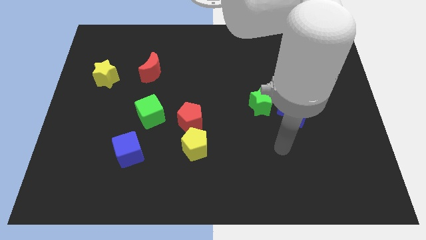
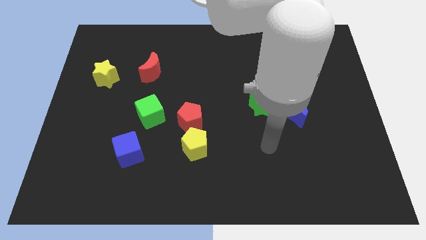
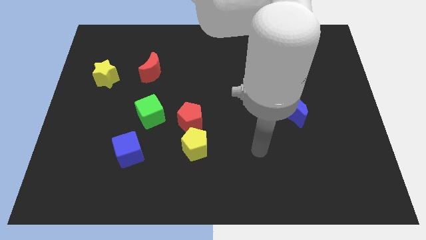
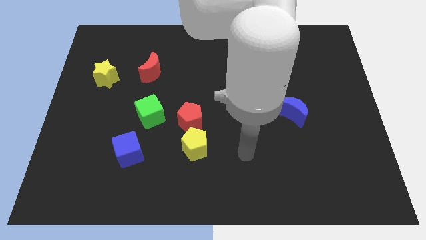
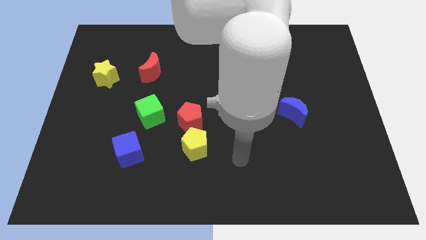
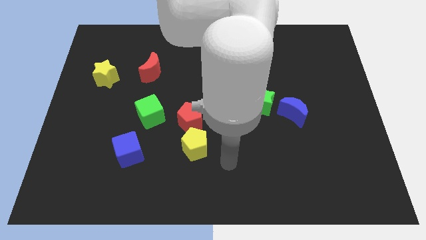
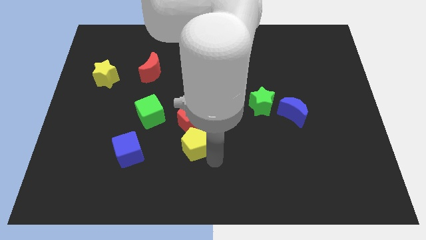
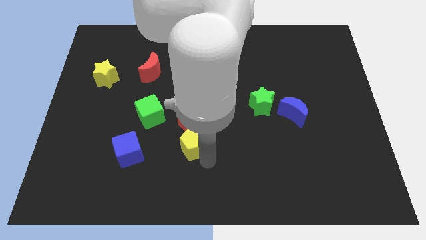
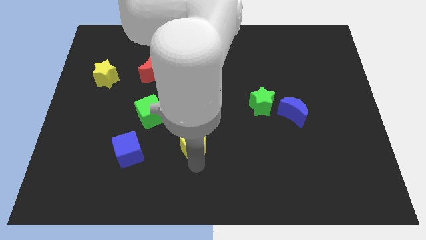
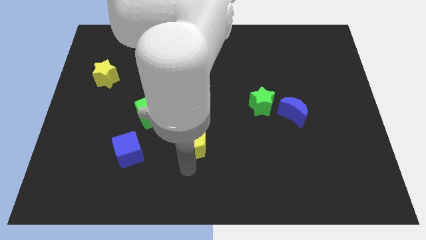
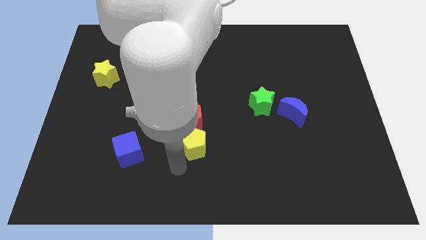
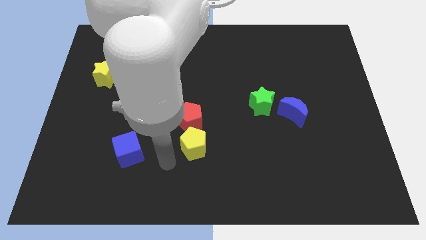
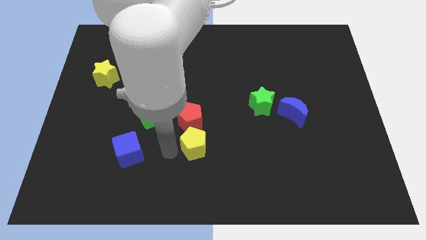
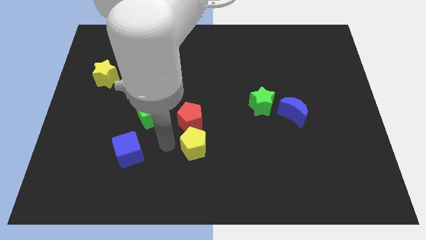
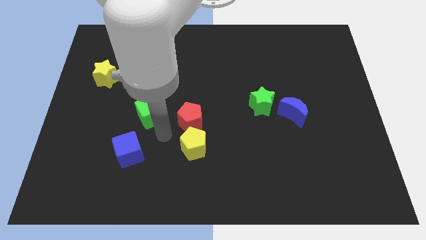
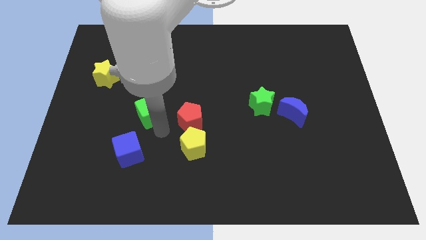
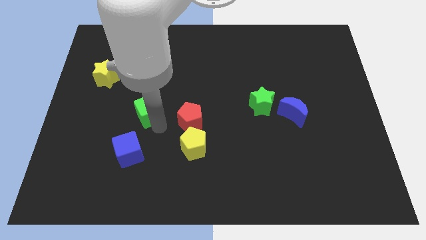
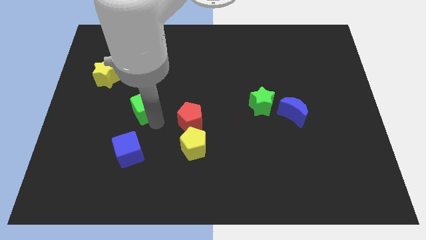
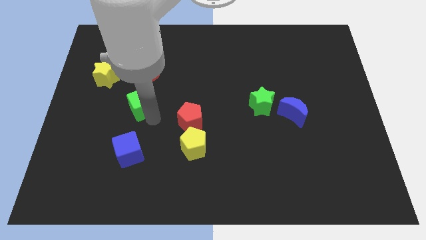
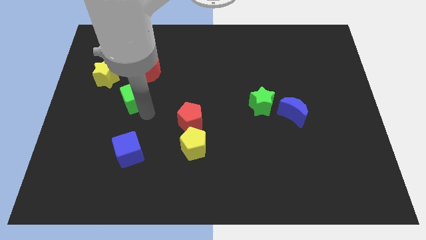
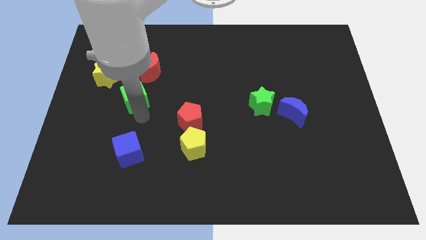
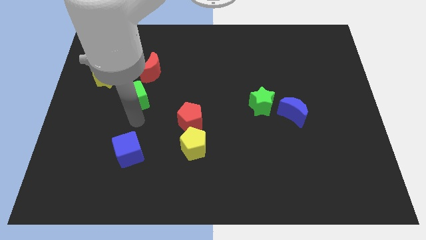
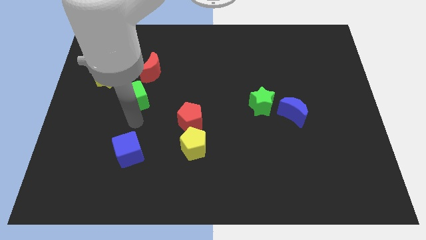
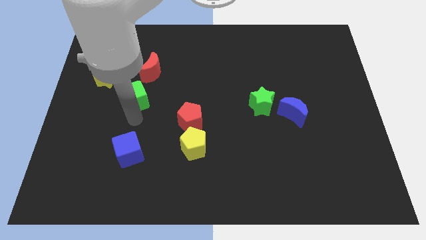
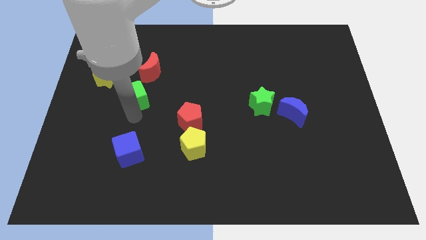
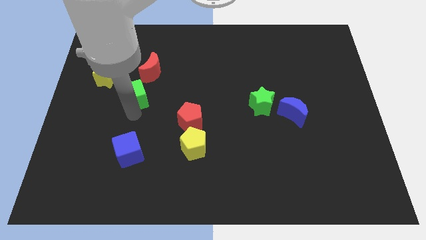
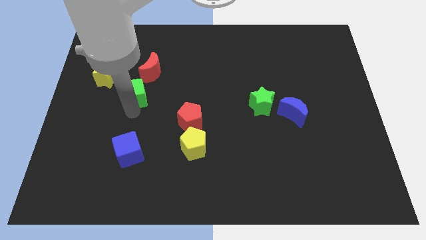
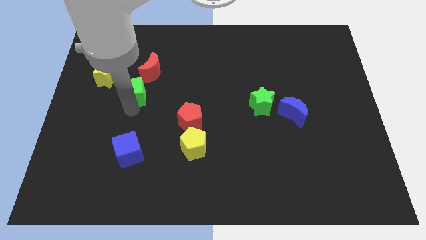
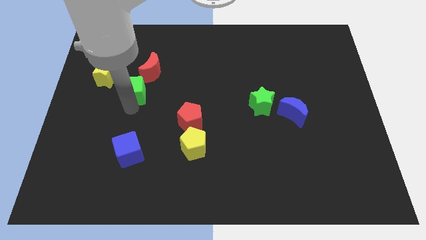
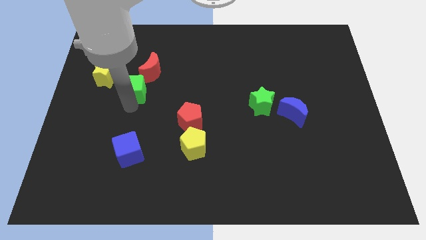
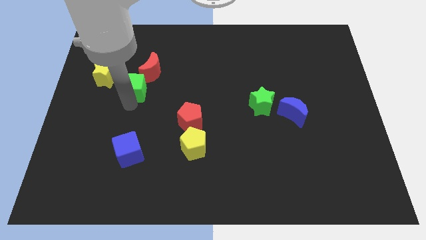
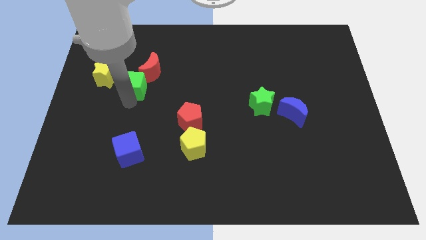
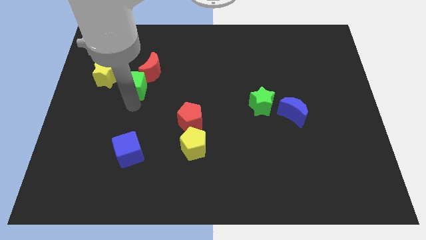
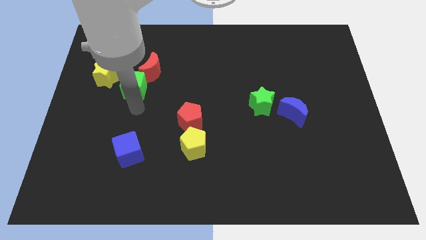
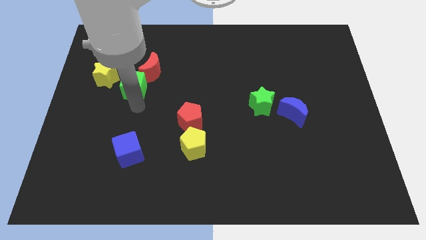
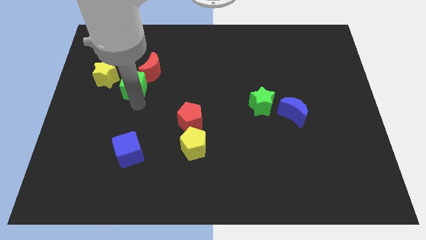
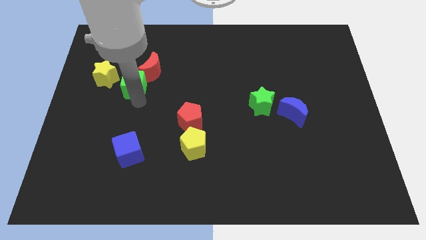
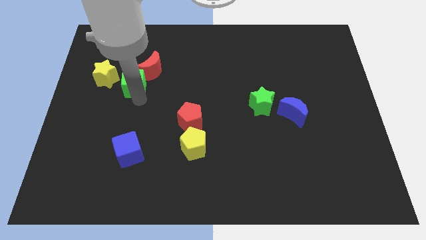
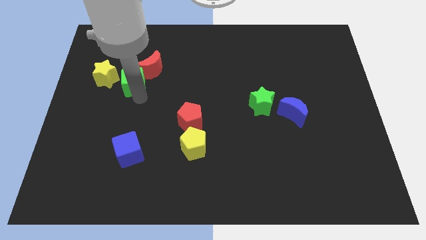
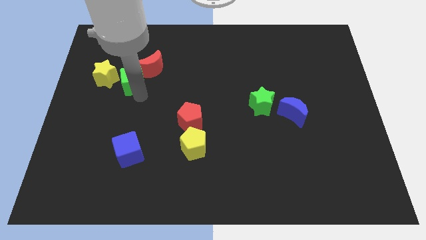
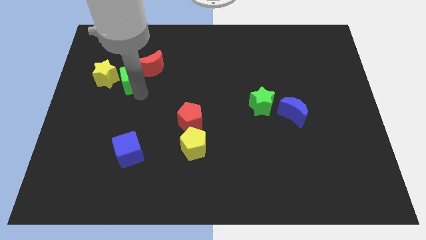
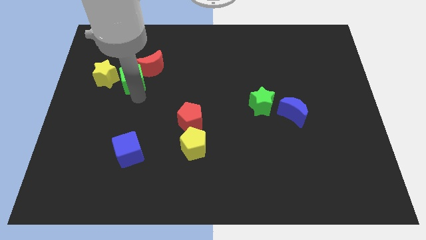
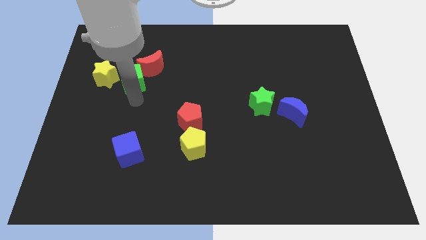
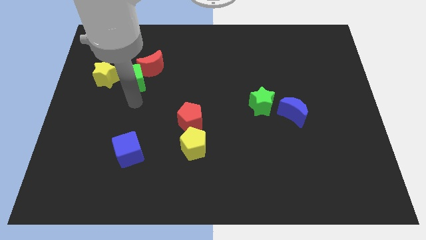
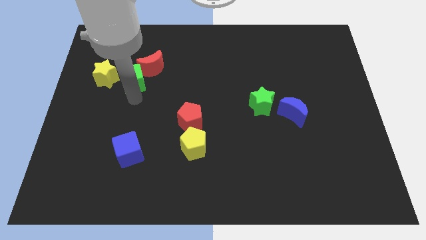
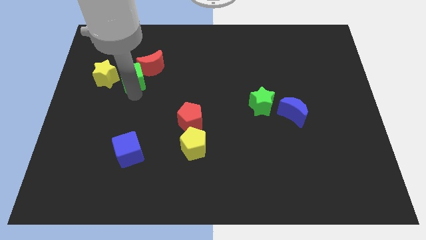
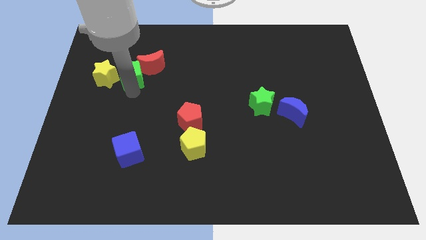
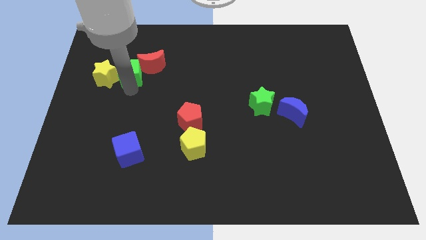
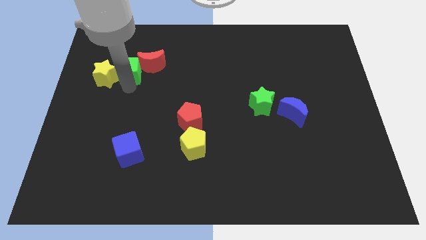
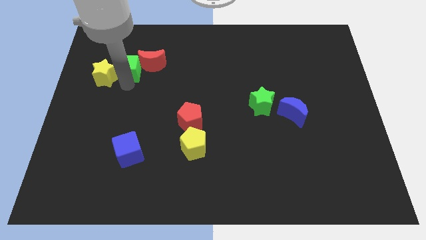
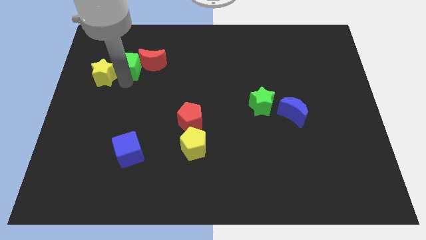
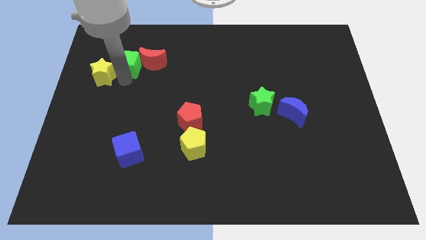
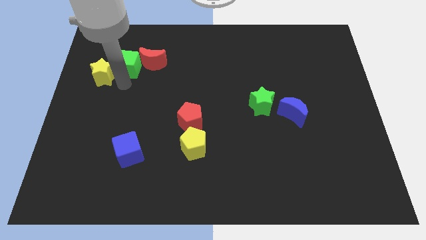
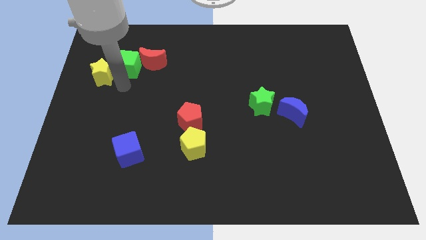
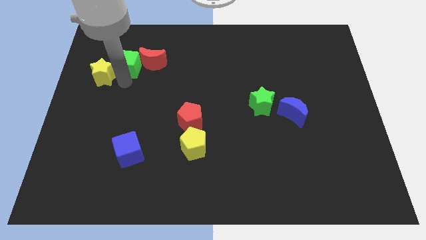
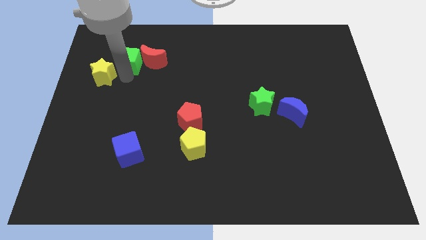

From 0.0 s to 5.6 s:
put the green cube diagonally up and to the left of the red moon
